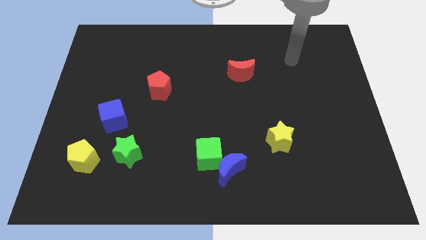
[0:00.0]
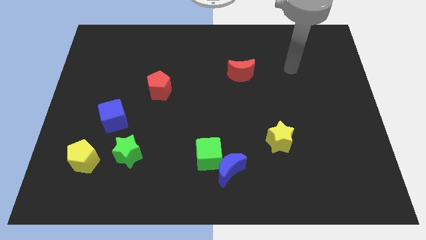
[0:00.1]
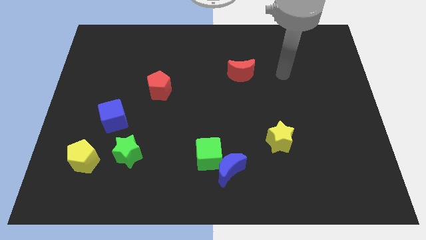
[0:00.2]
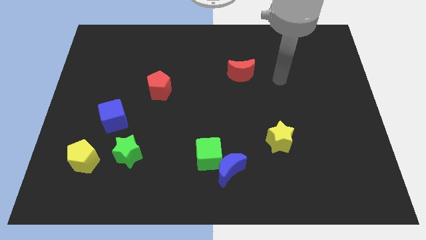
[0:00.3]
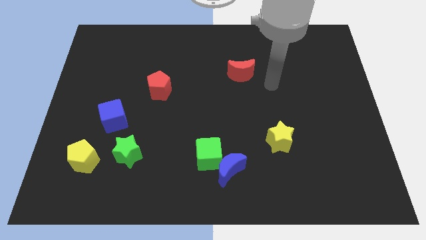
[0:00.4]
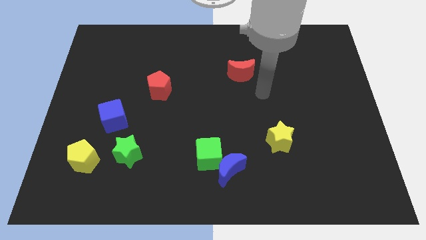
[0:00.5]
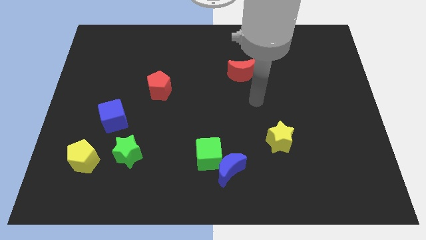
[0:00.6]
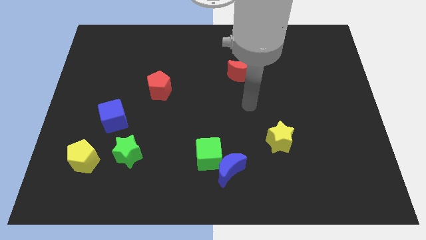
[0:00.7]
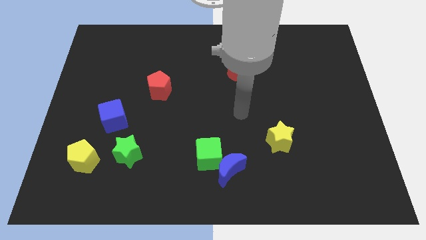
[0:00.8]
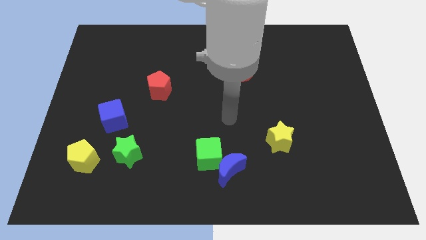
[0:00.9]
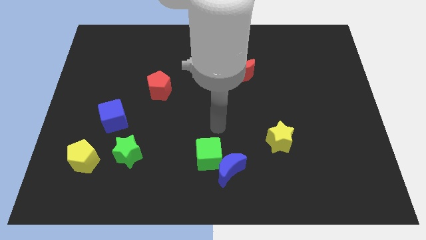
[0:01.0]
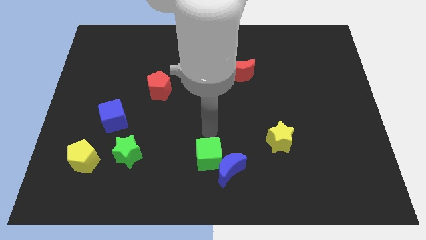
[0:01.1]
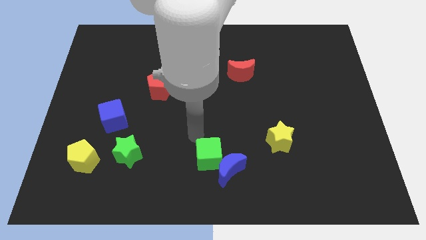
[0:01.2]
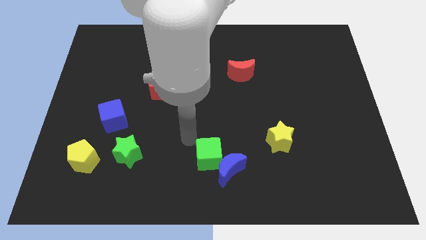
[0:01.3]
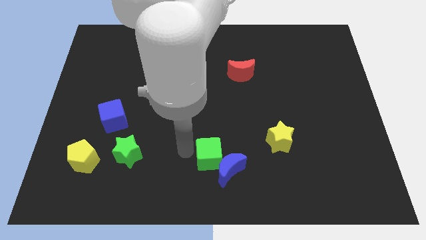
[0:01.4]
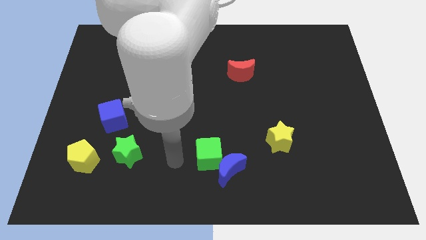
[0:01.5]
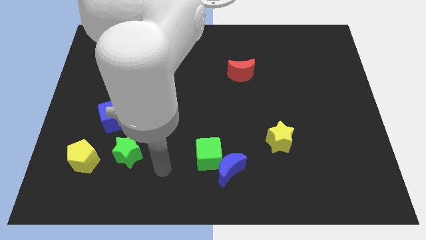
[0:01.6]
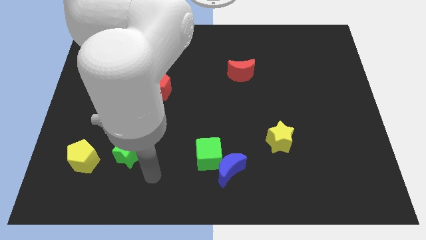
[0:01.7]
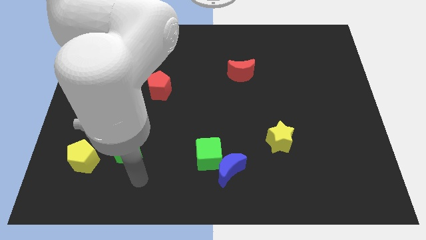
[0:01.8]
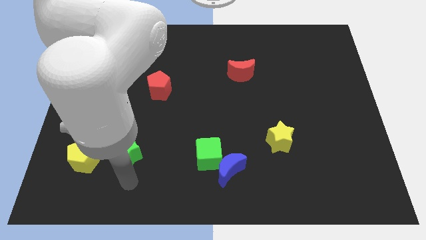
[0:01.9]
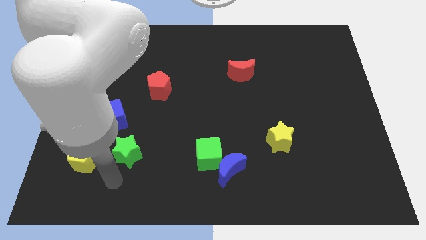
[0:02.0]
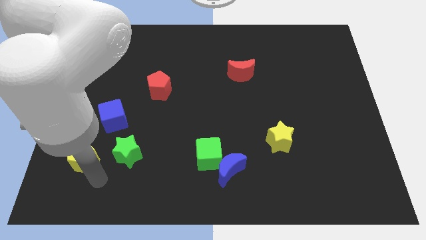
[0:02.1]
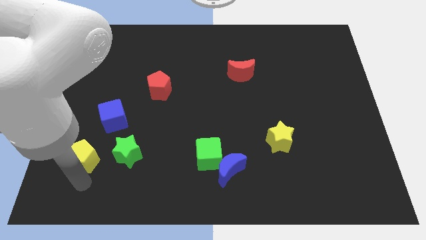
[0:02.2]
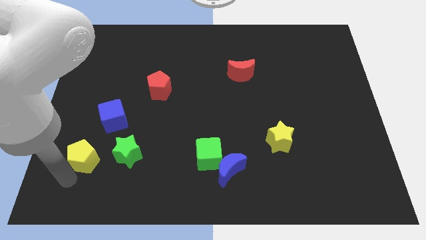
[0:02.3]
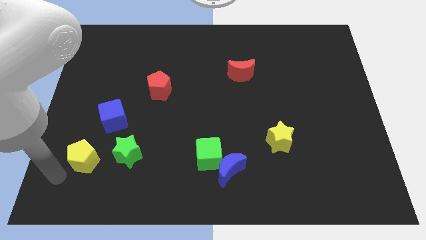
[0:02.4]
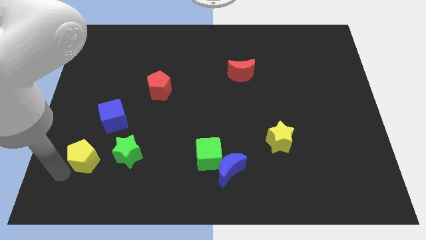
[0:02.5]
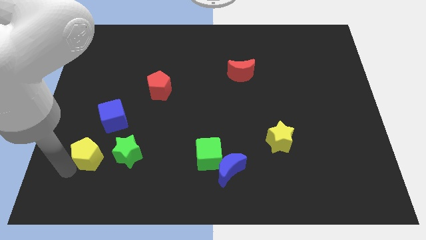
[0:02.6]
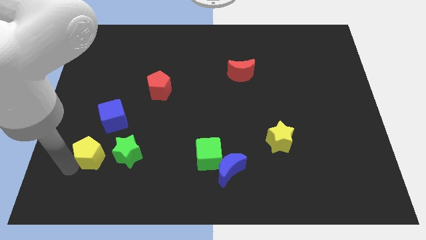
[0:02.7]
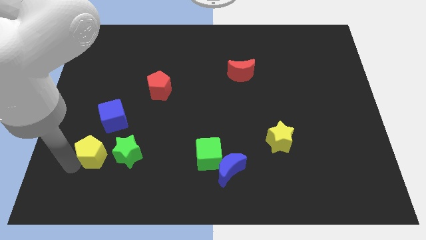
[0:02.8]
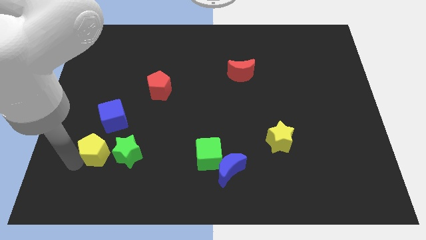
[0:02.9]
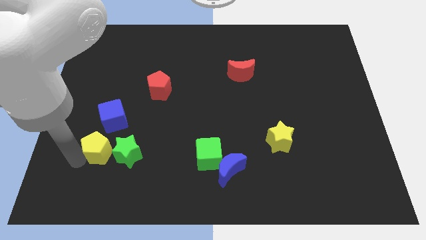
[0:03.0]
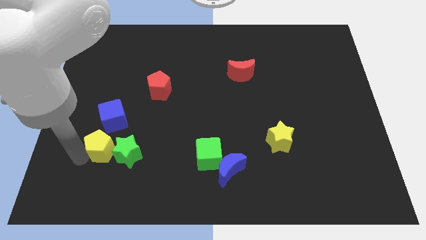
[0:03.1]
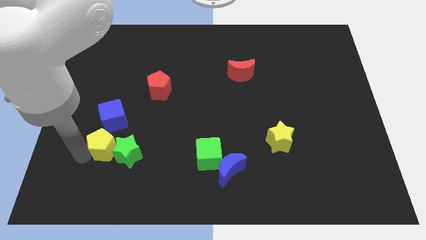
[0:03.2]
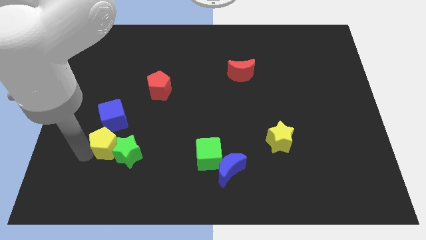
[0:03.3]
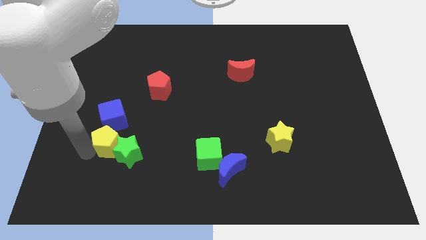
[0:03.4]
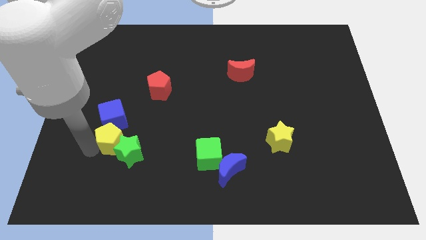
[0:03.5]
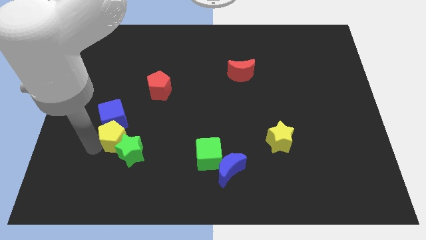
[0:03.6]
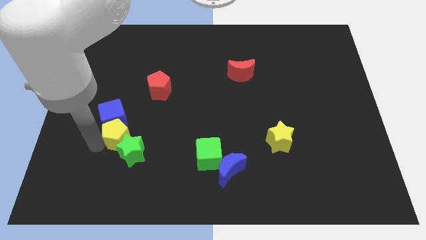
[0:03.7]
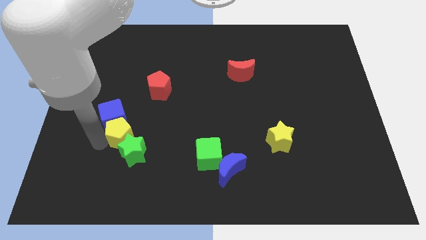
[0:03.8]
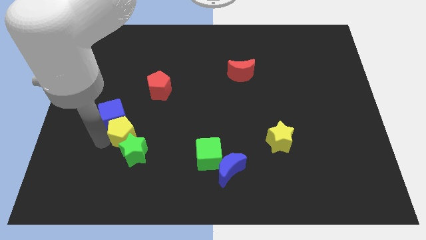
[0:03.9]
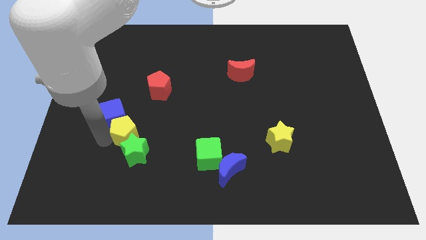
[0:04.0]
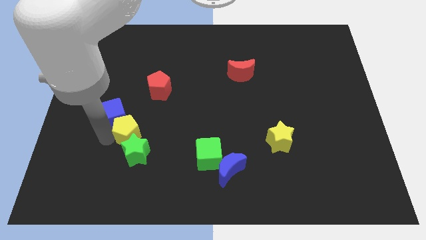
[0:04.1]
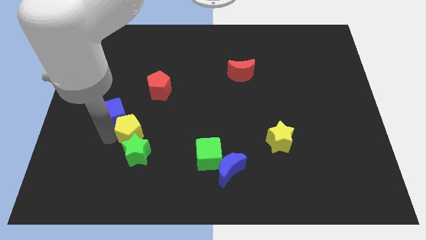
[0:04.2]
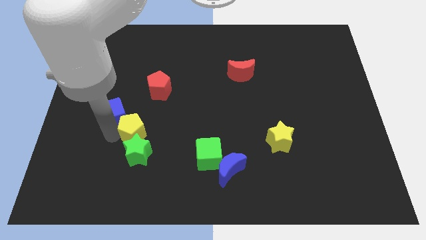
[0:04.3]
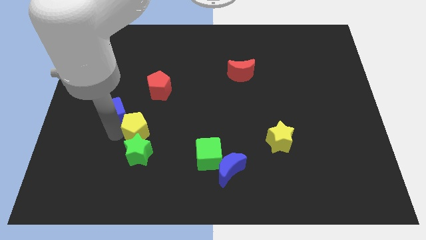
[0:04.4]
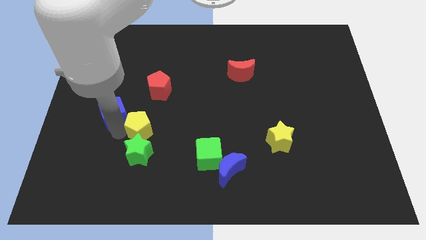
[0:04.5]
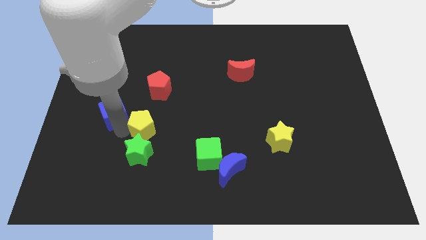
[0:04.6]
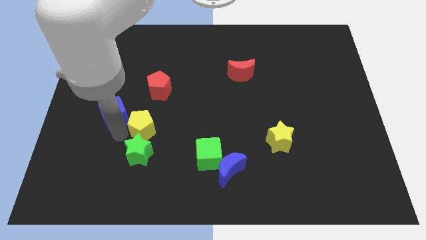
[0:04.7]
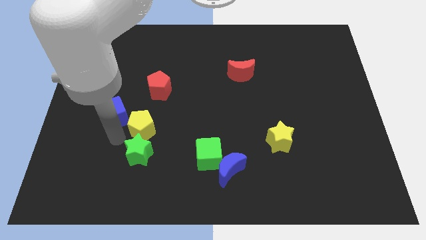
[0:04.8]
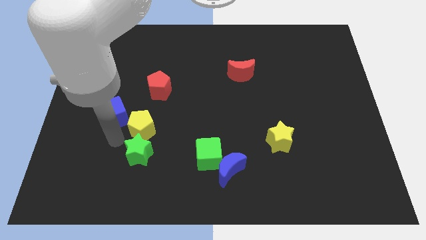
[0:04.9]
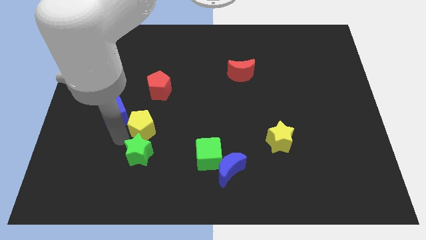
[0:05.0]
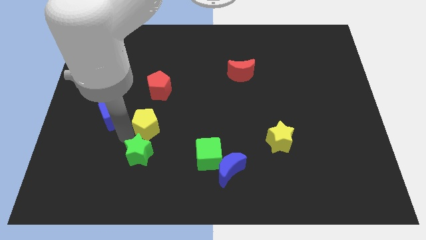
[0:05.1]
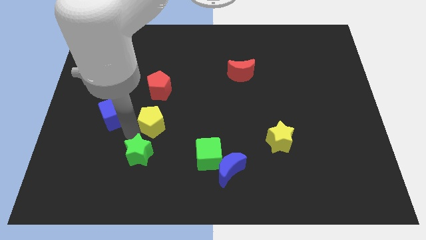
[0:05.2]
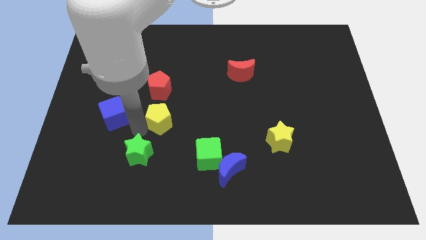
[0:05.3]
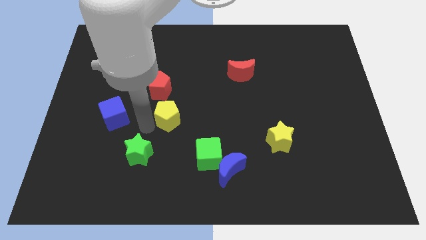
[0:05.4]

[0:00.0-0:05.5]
put the yellow pentagon to the center of the board
